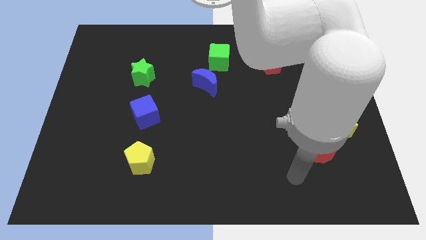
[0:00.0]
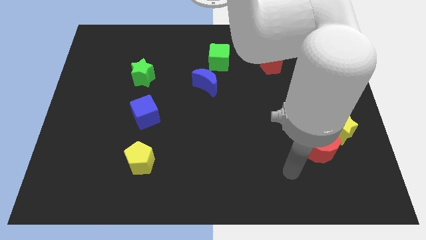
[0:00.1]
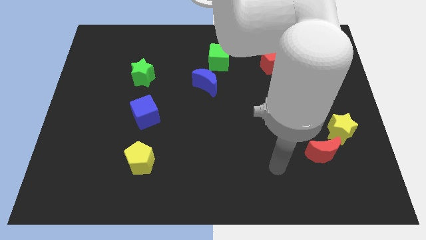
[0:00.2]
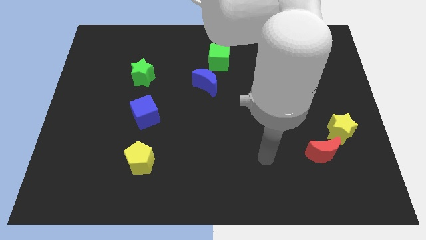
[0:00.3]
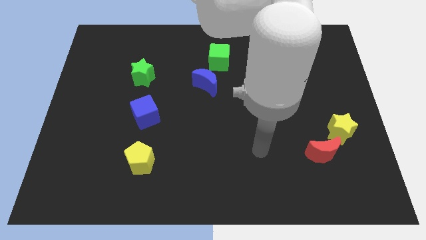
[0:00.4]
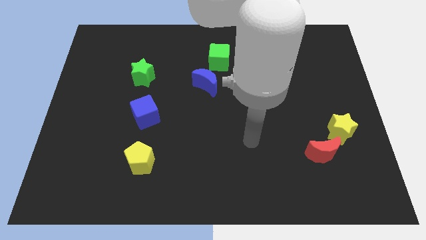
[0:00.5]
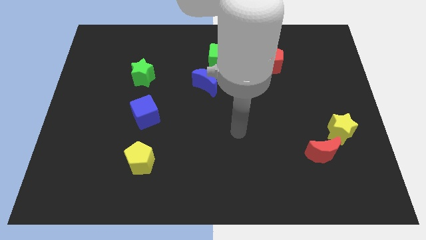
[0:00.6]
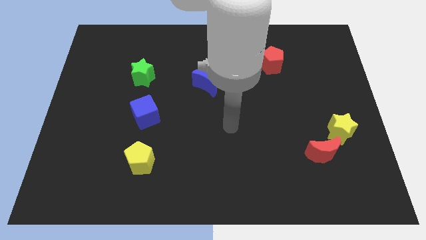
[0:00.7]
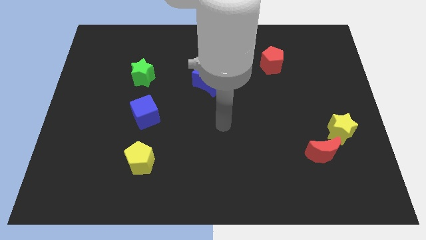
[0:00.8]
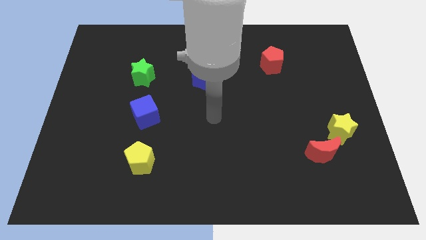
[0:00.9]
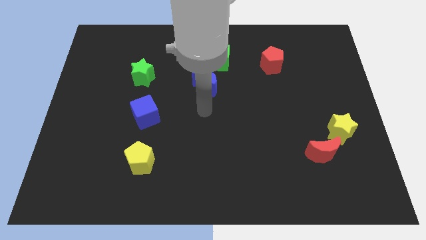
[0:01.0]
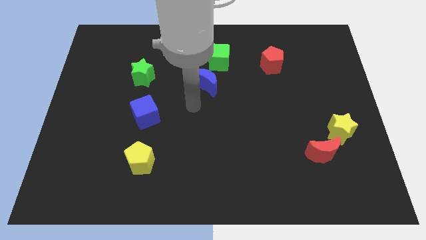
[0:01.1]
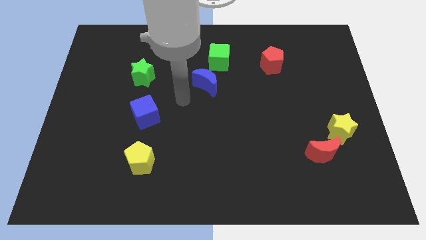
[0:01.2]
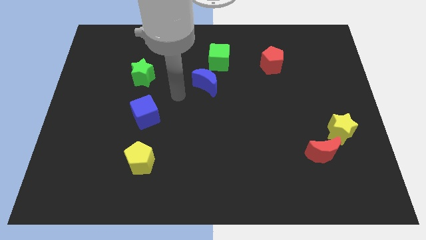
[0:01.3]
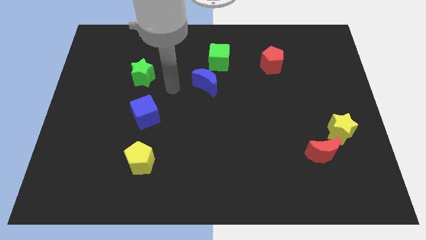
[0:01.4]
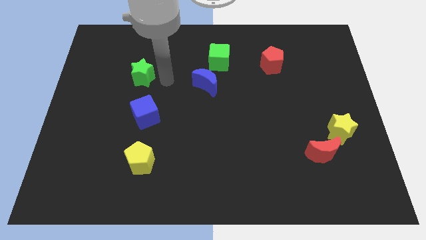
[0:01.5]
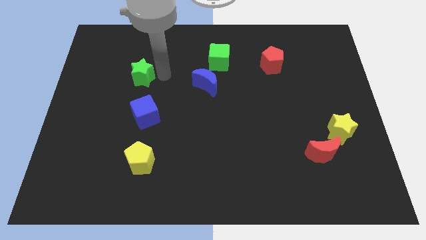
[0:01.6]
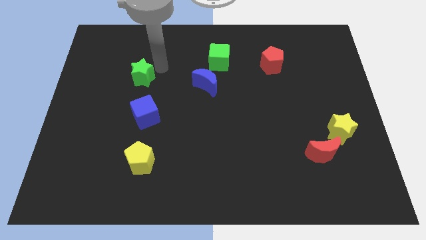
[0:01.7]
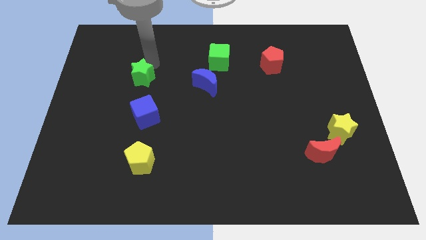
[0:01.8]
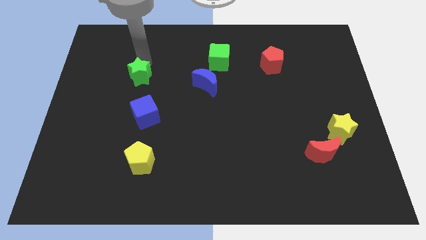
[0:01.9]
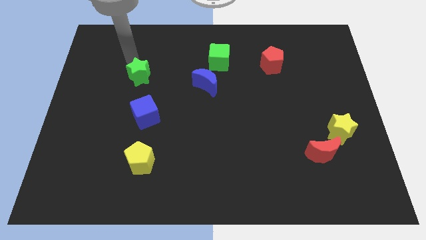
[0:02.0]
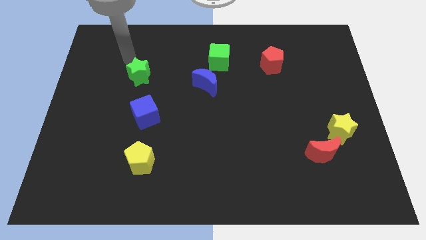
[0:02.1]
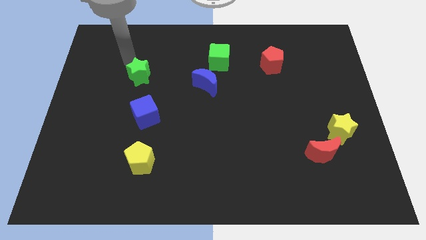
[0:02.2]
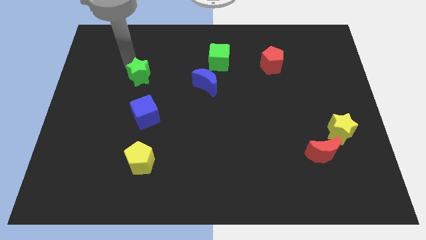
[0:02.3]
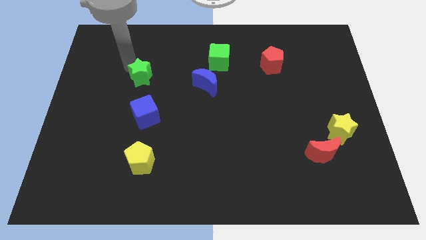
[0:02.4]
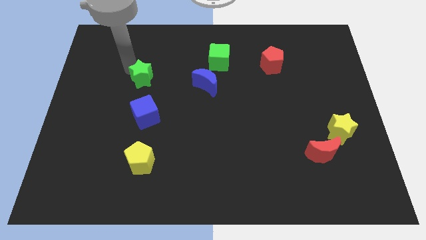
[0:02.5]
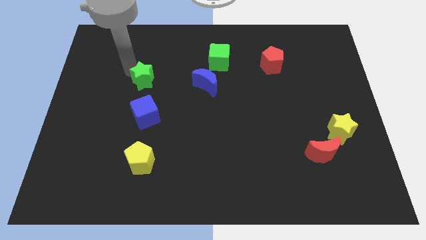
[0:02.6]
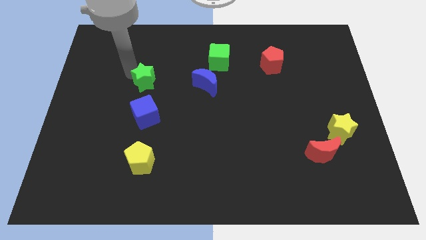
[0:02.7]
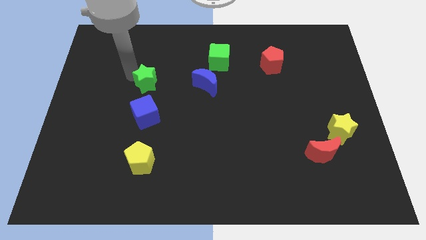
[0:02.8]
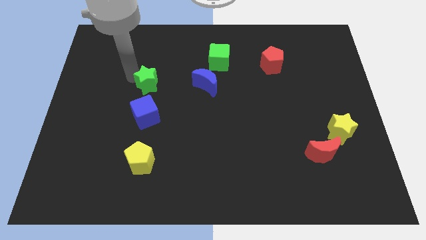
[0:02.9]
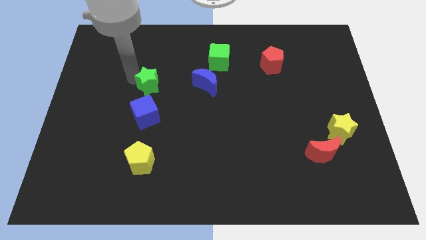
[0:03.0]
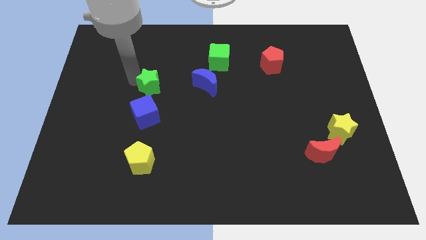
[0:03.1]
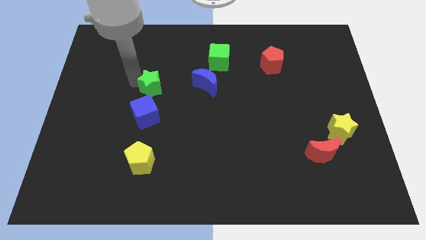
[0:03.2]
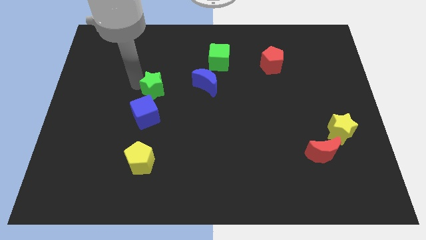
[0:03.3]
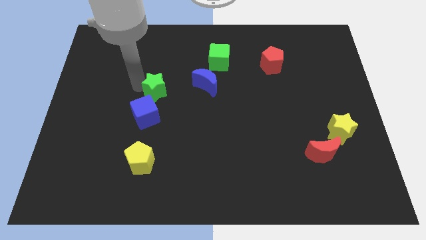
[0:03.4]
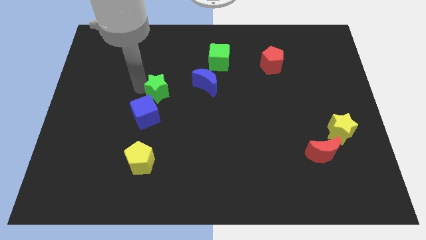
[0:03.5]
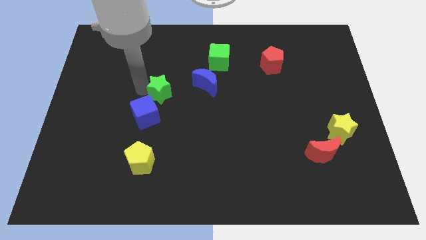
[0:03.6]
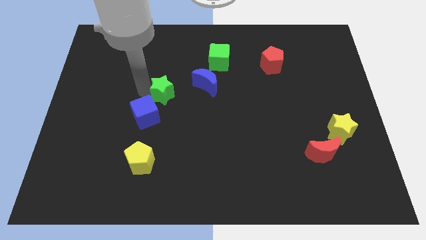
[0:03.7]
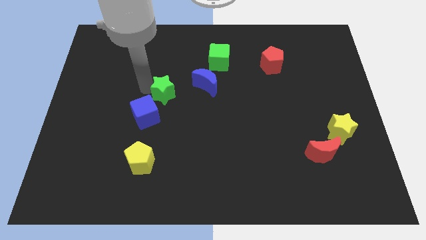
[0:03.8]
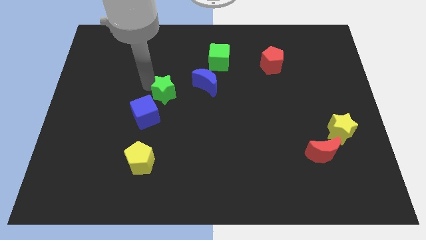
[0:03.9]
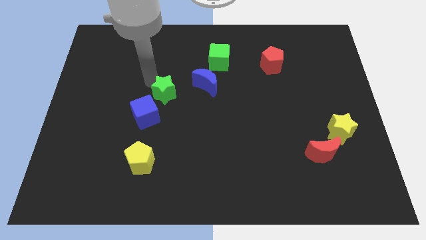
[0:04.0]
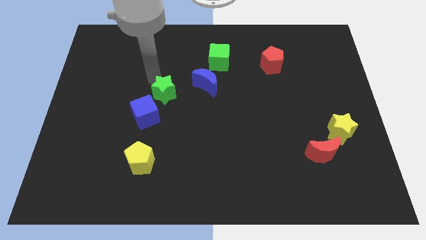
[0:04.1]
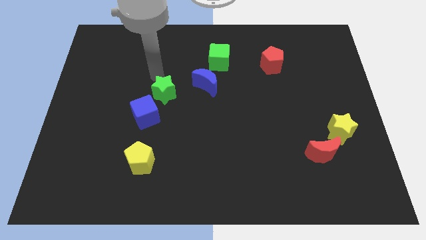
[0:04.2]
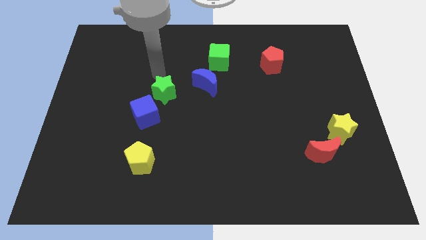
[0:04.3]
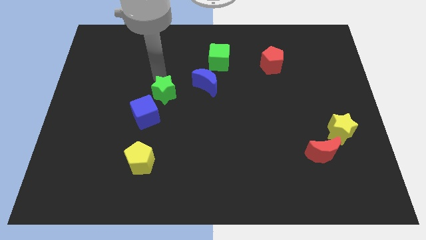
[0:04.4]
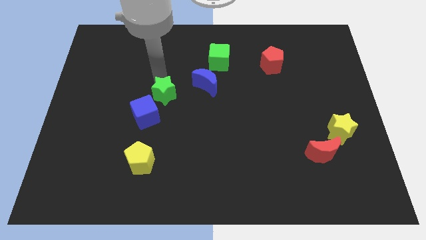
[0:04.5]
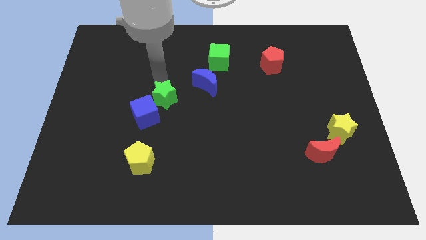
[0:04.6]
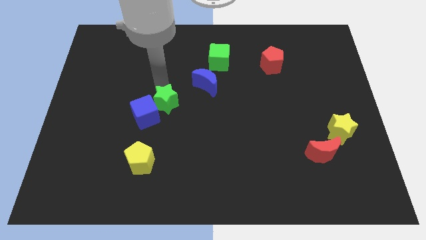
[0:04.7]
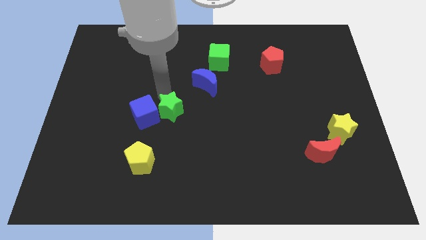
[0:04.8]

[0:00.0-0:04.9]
put the green star diagonally down and to the right of the blue cube

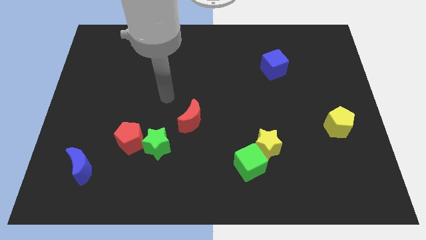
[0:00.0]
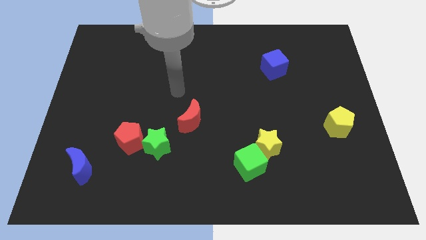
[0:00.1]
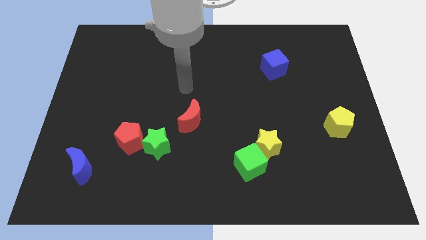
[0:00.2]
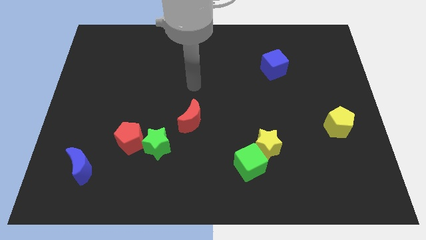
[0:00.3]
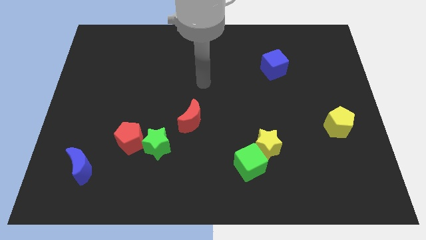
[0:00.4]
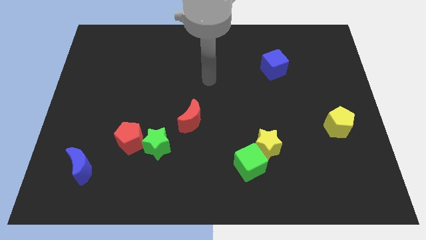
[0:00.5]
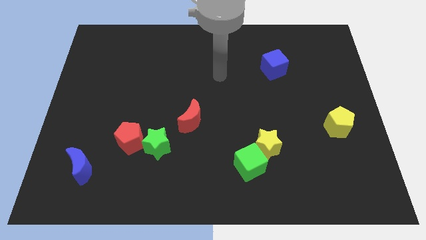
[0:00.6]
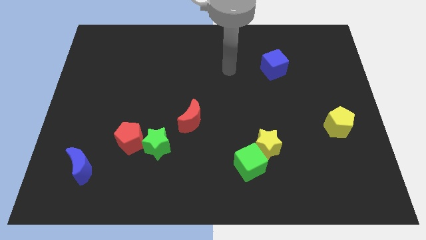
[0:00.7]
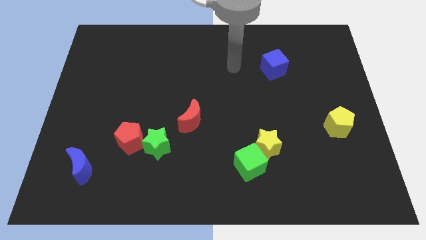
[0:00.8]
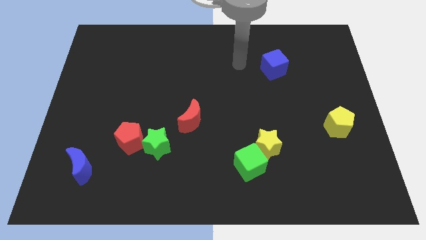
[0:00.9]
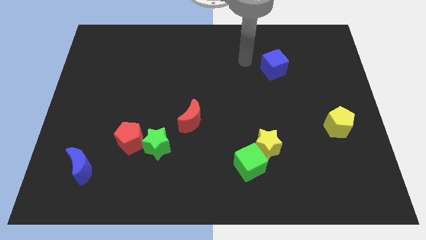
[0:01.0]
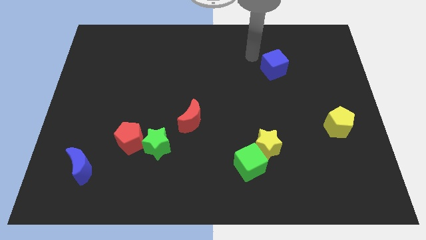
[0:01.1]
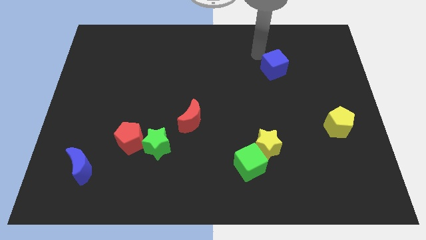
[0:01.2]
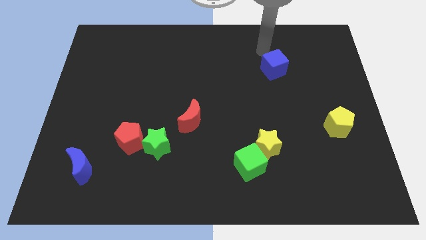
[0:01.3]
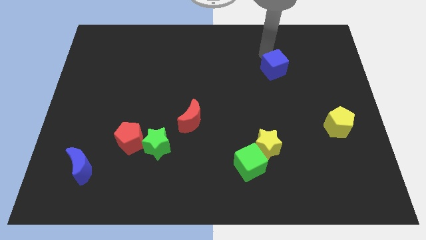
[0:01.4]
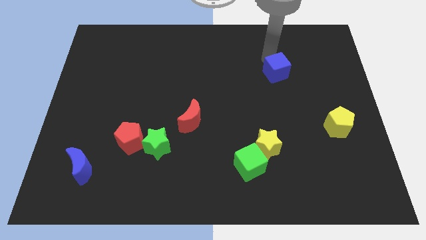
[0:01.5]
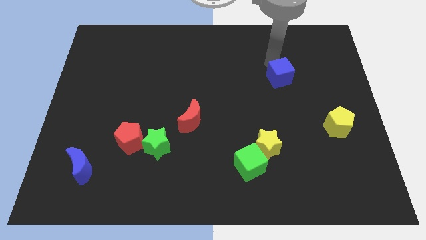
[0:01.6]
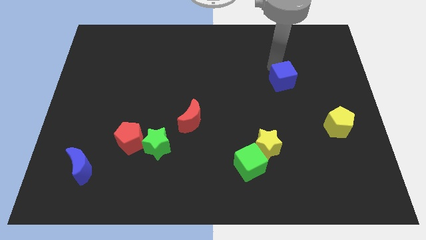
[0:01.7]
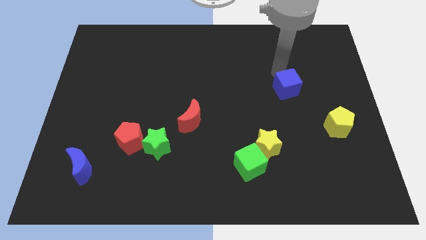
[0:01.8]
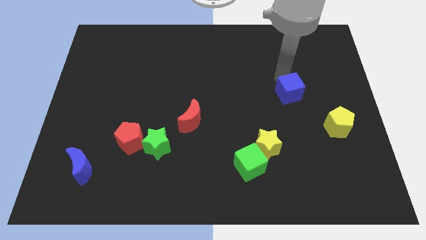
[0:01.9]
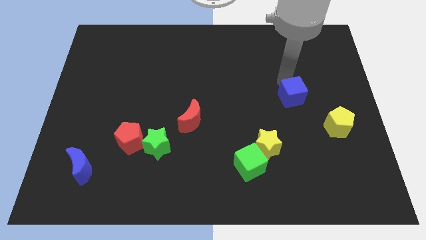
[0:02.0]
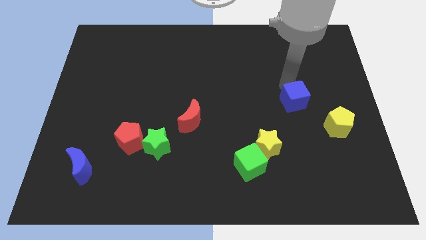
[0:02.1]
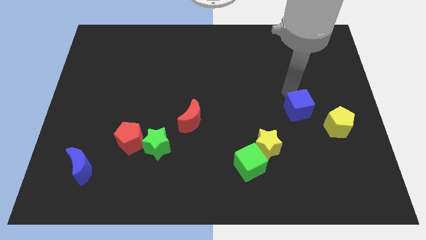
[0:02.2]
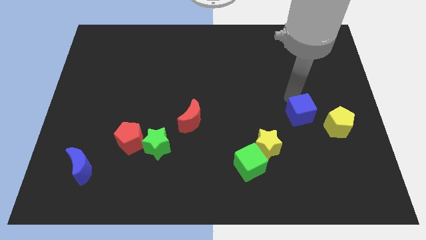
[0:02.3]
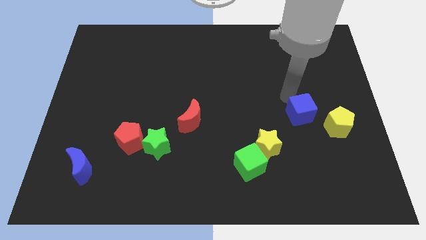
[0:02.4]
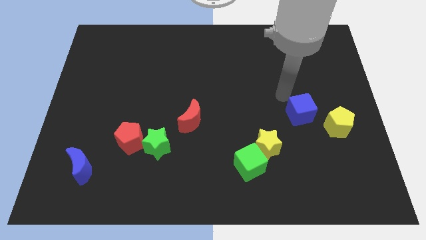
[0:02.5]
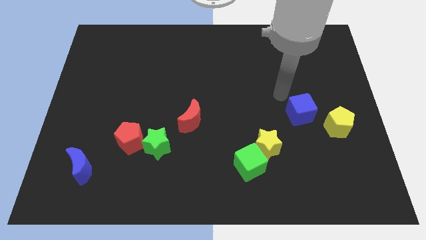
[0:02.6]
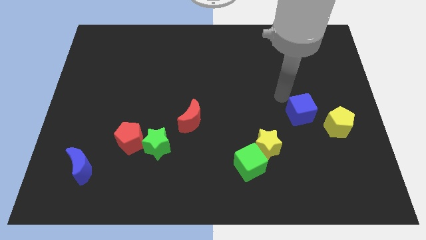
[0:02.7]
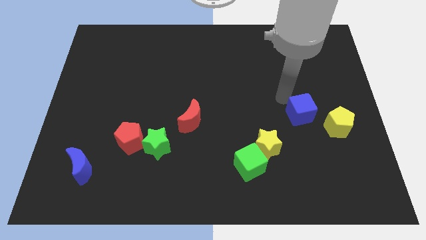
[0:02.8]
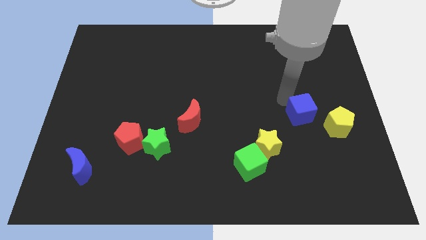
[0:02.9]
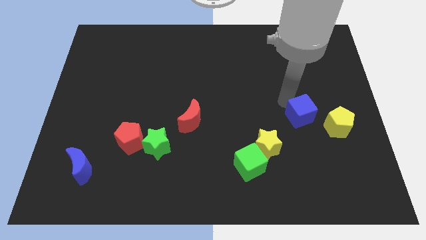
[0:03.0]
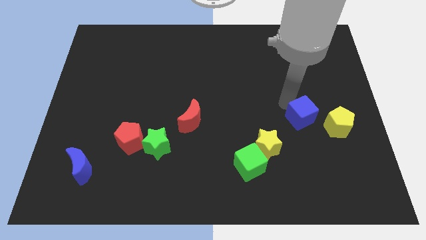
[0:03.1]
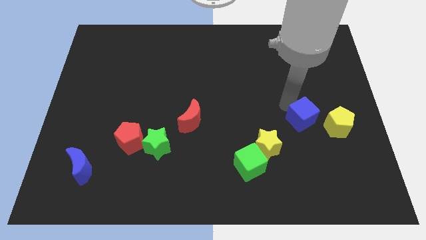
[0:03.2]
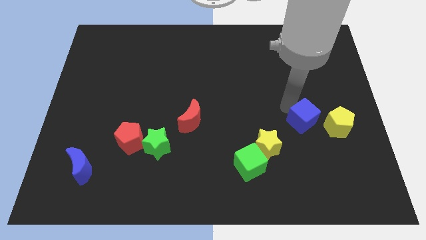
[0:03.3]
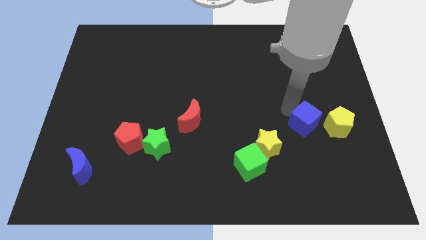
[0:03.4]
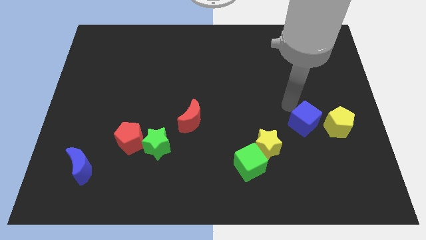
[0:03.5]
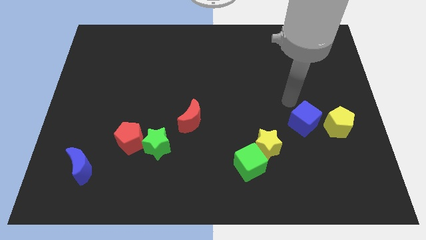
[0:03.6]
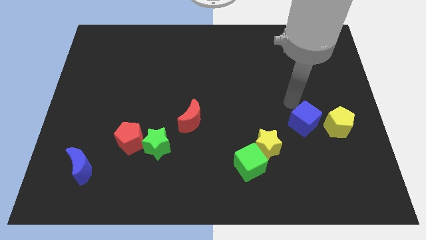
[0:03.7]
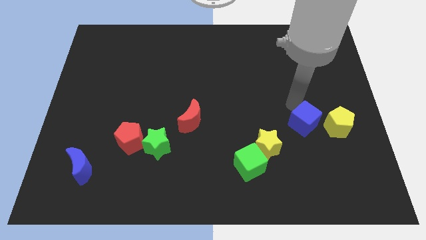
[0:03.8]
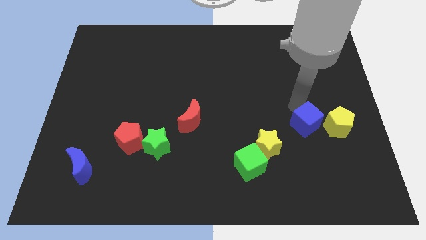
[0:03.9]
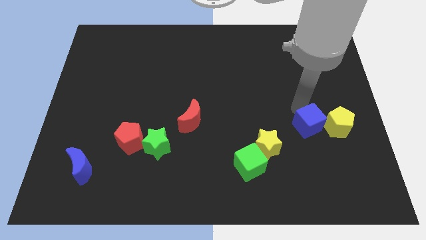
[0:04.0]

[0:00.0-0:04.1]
put the blue cube diagonally down and to the left of the yellow pentagon
